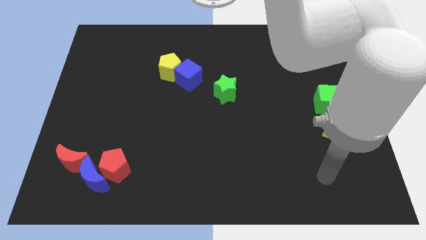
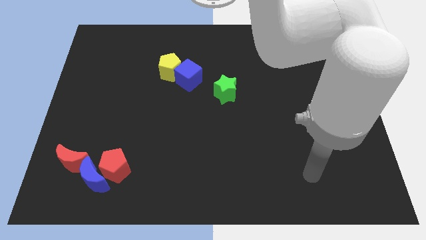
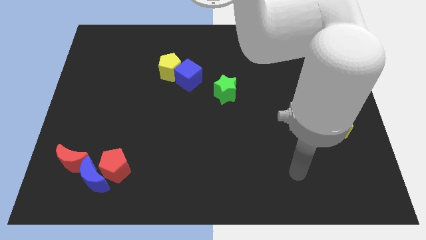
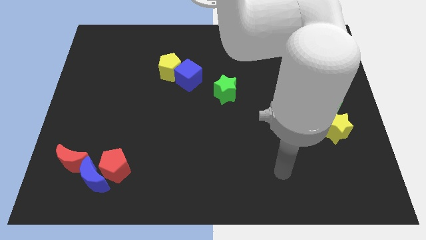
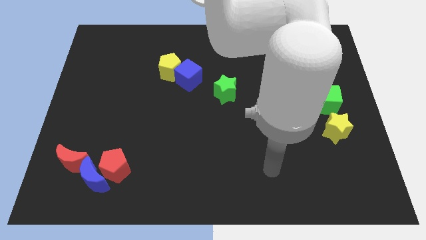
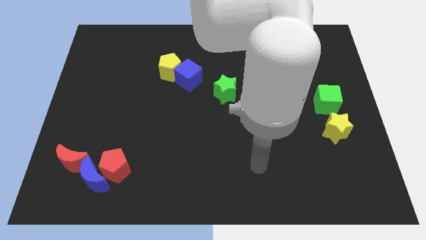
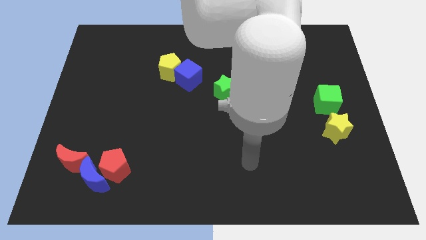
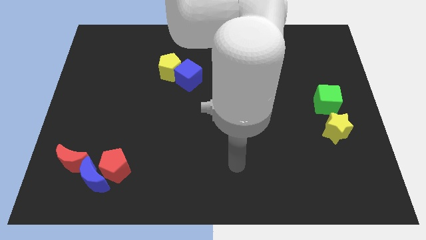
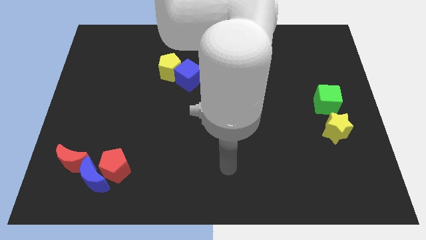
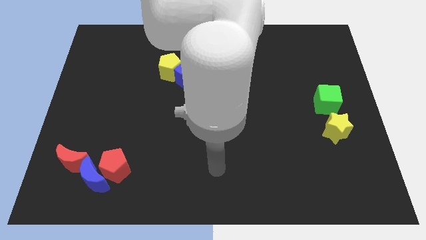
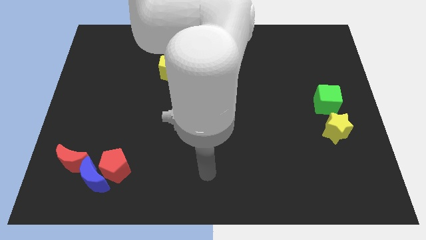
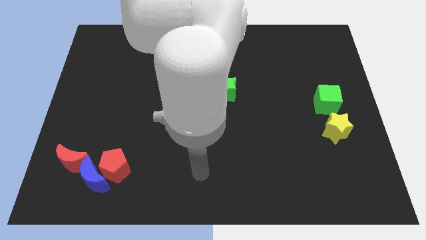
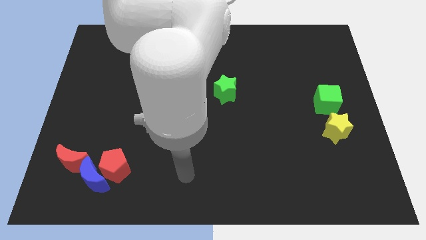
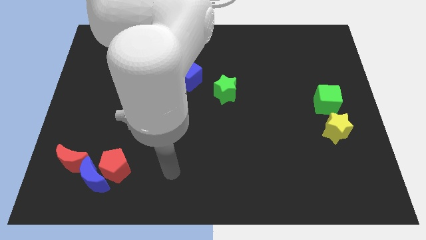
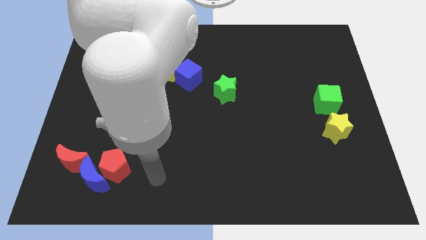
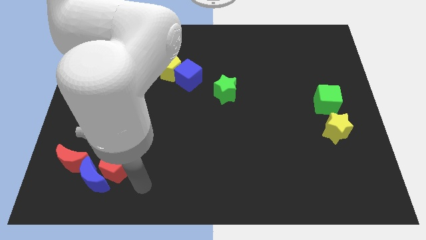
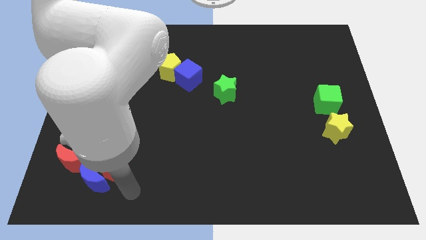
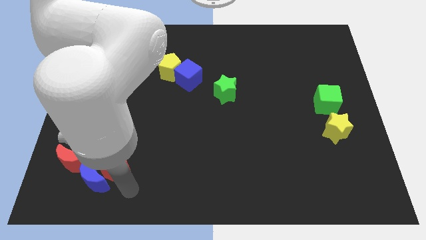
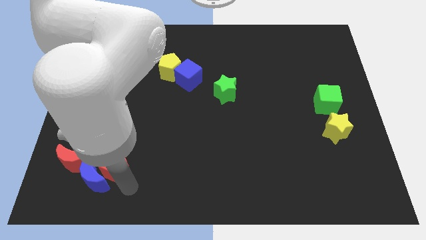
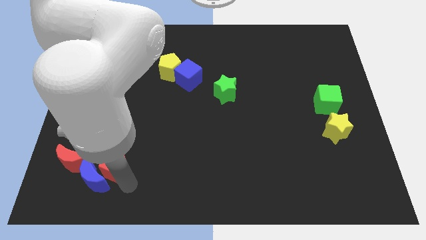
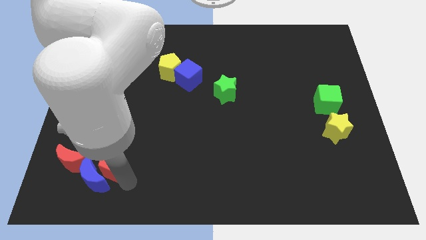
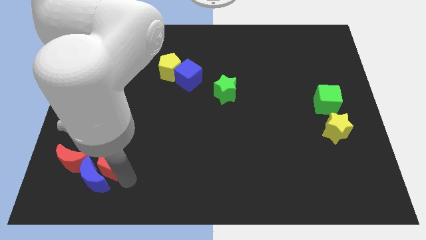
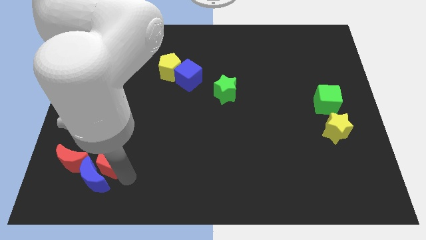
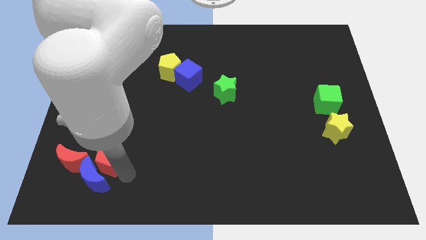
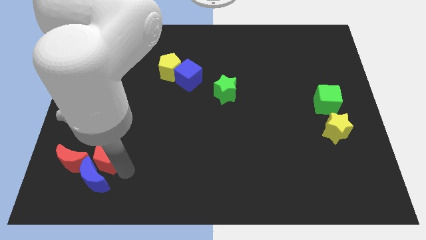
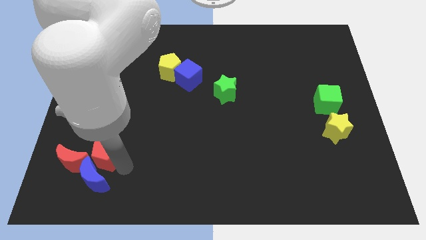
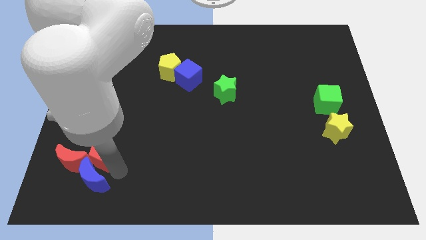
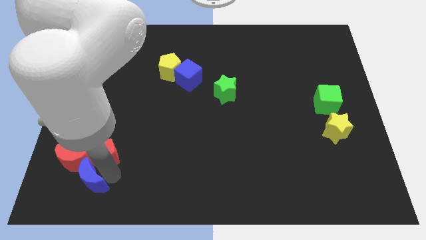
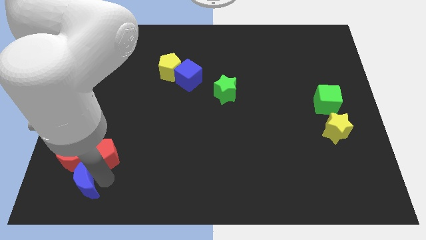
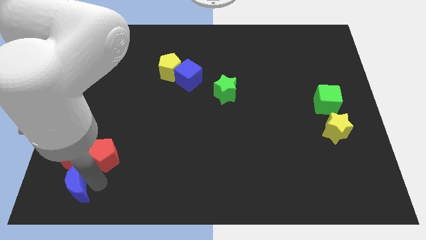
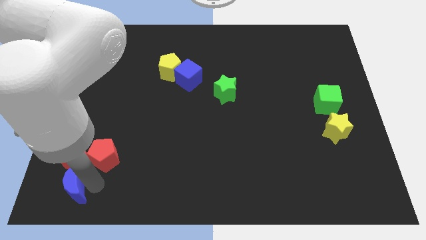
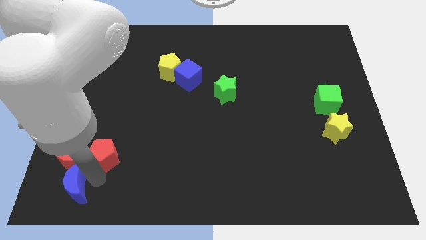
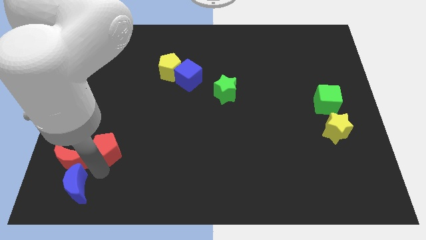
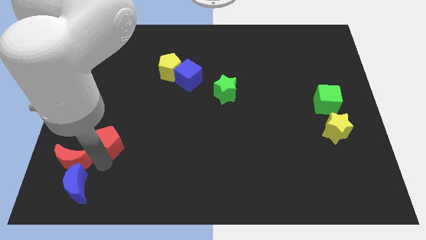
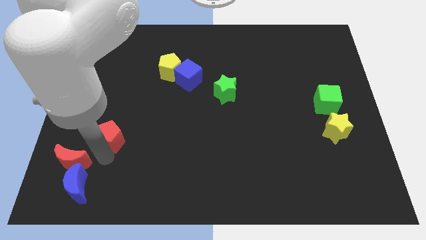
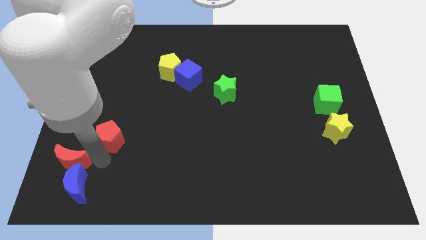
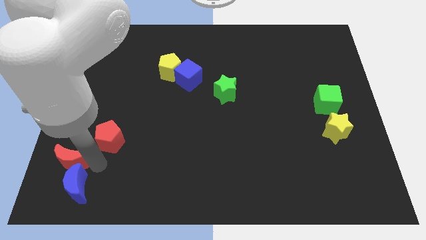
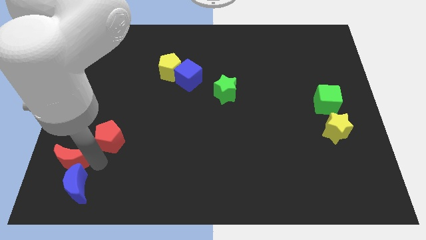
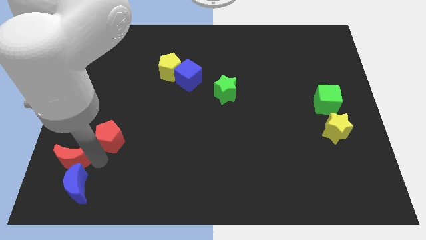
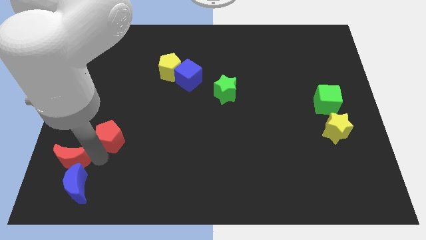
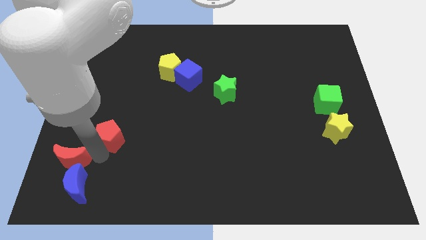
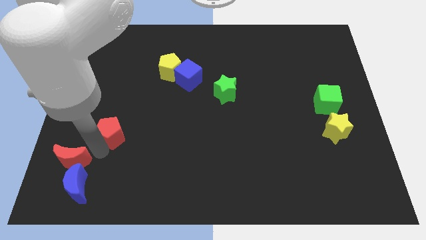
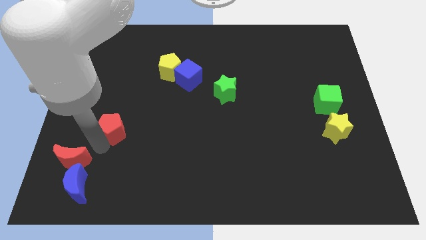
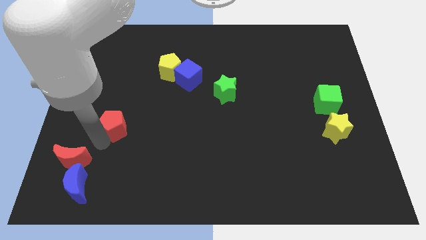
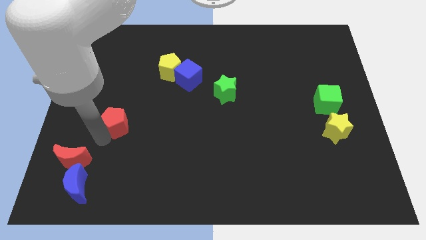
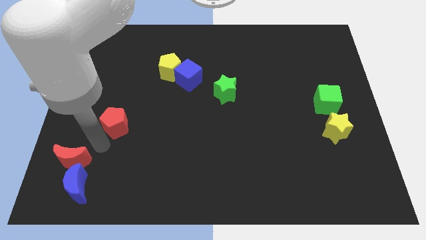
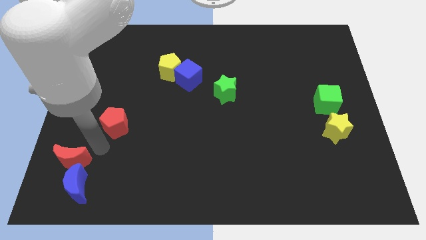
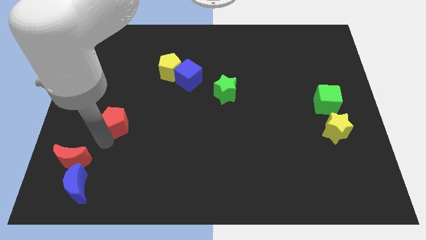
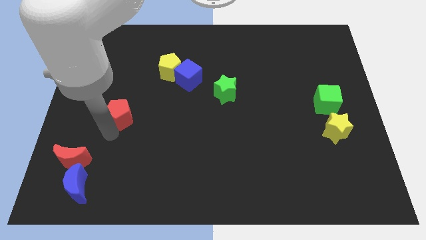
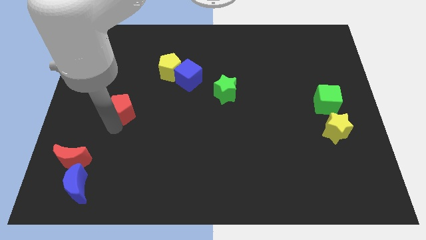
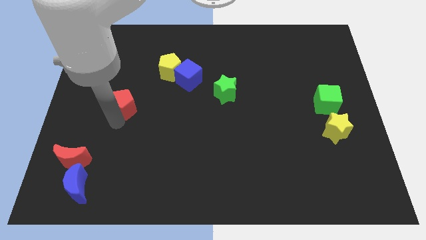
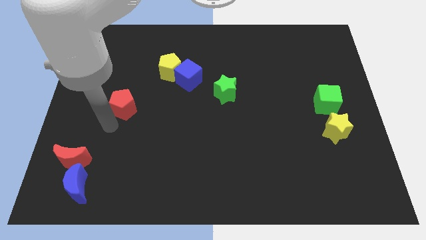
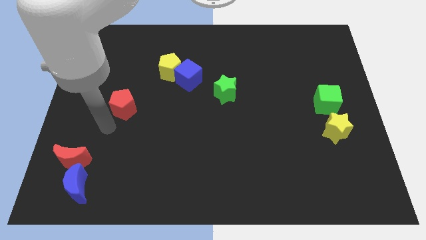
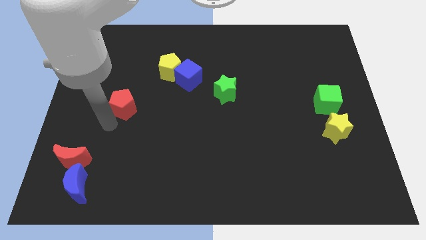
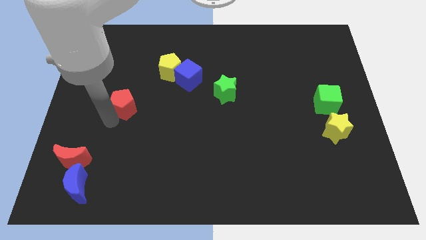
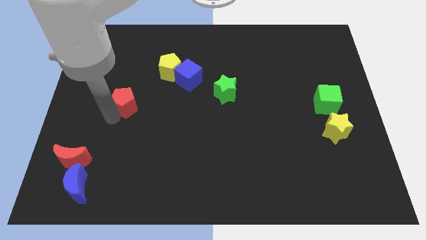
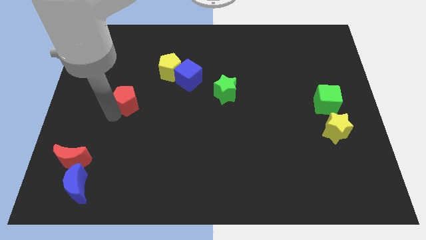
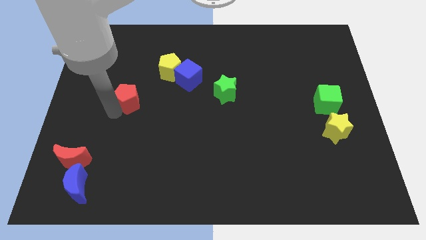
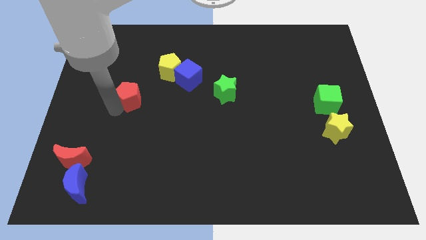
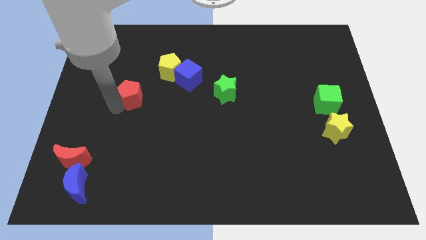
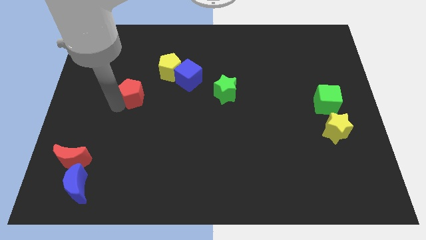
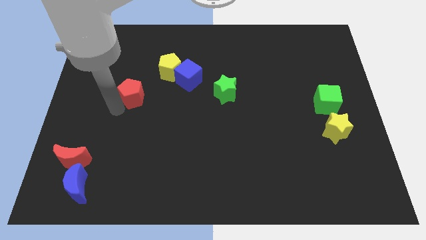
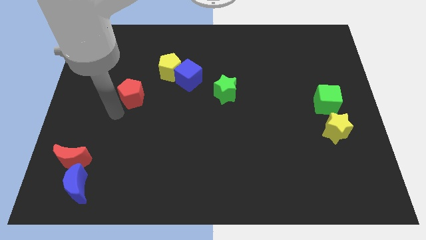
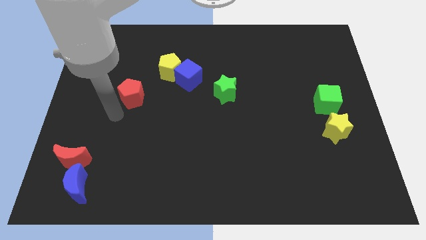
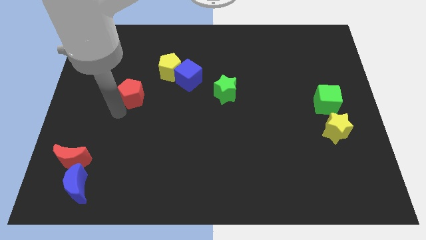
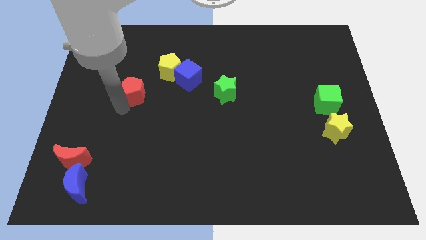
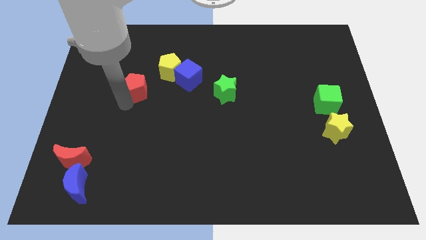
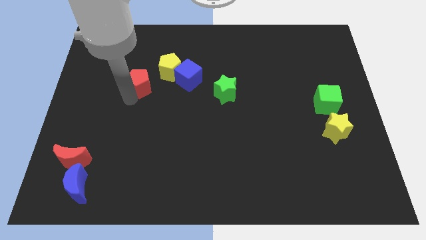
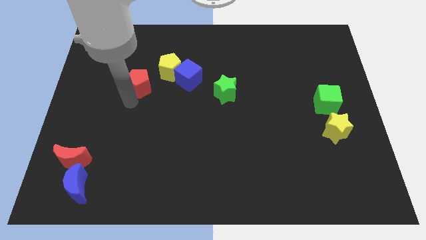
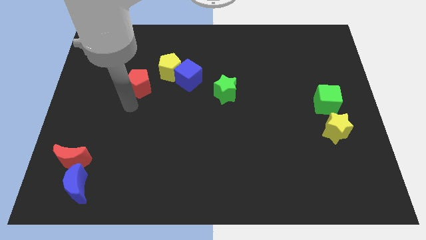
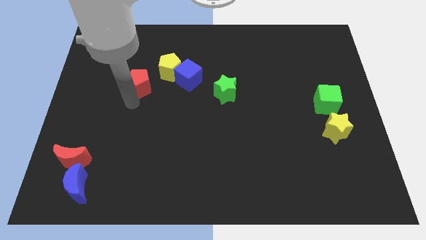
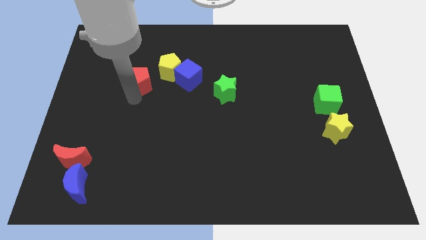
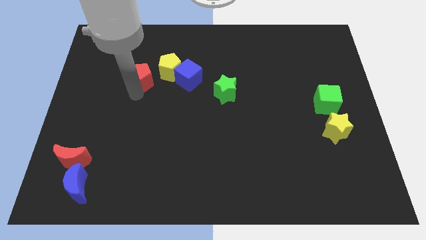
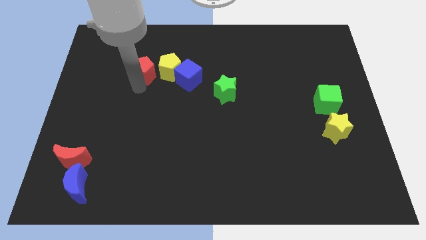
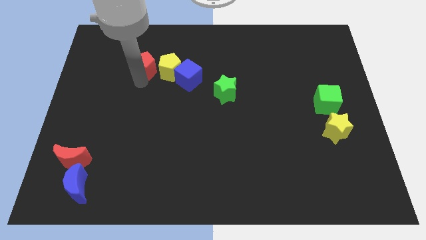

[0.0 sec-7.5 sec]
slide the red pentagon to the top left side of the yellow pentagon

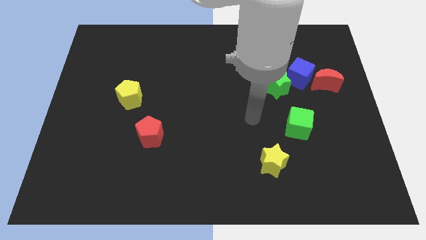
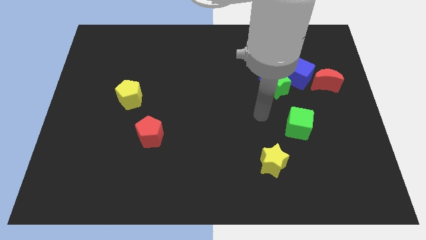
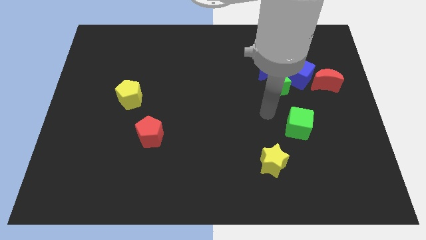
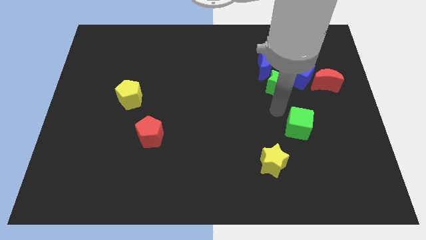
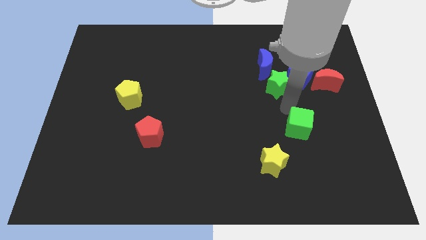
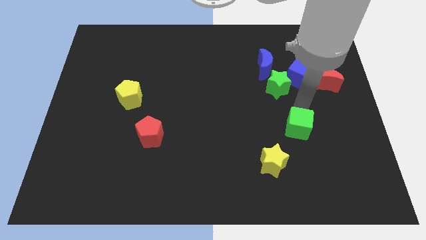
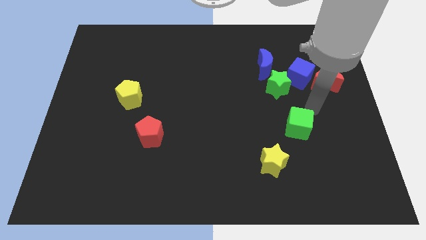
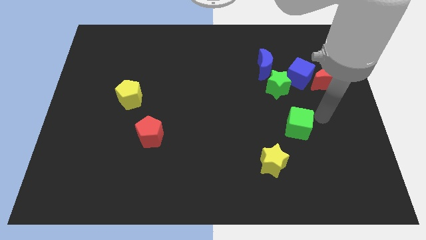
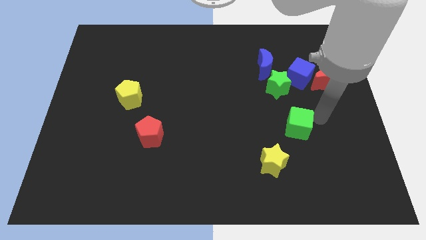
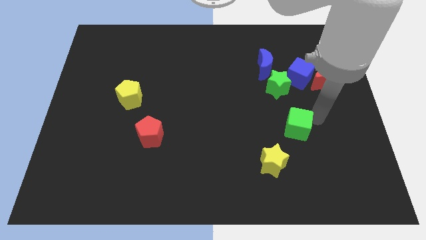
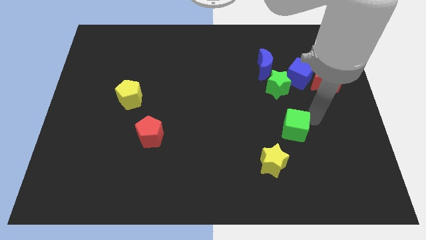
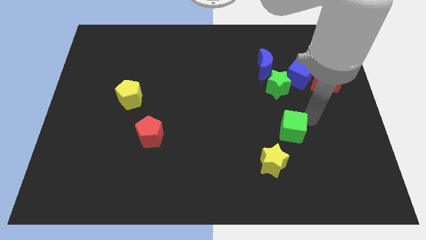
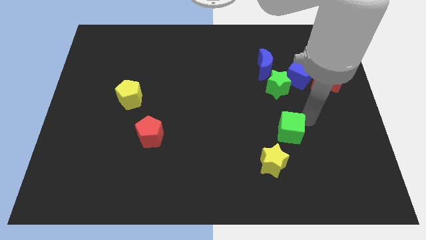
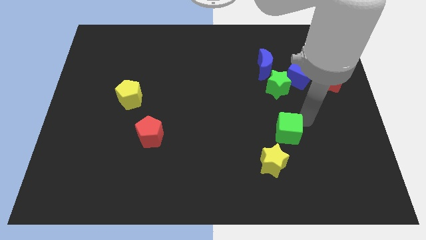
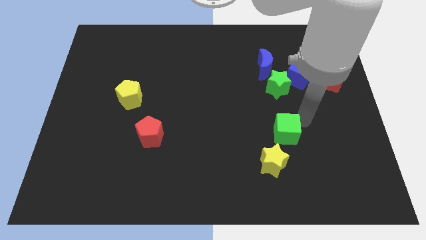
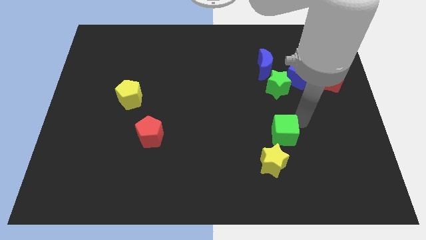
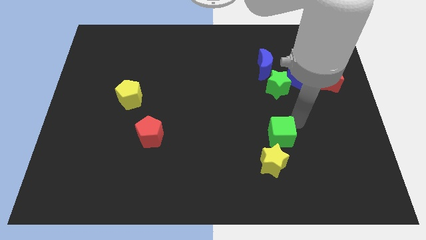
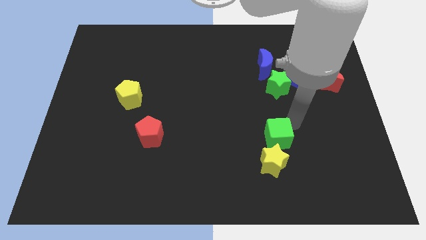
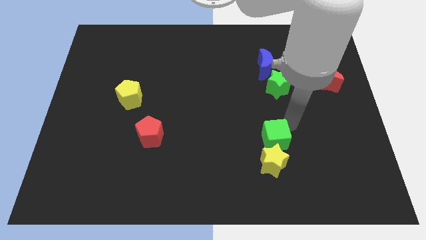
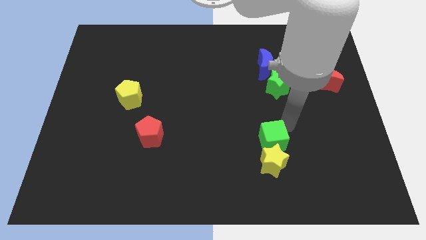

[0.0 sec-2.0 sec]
push the green cube diagonally up and to the left of the yellow star
